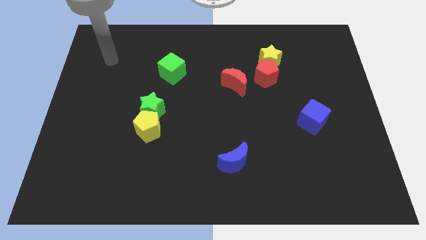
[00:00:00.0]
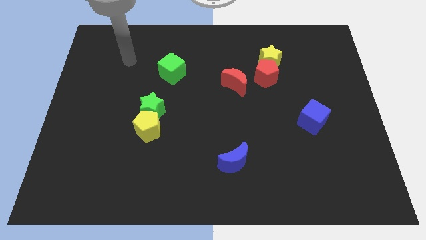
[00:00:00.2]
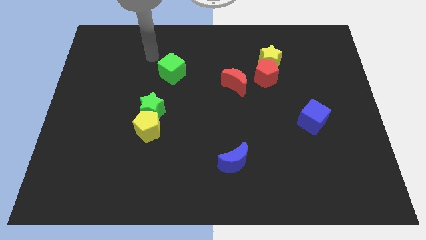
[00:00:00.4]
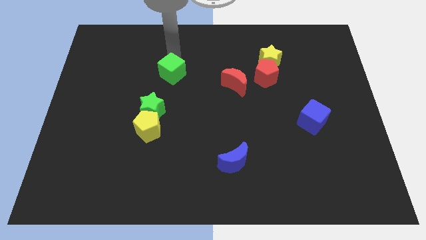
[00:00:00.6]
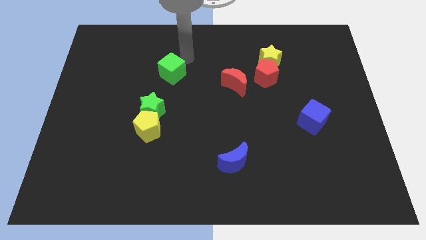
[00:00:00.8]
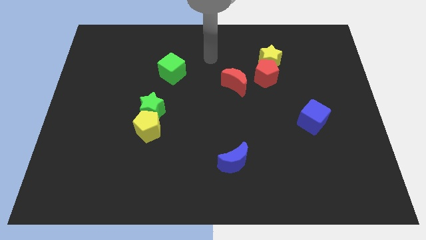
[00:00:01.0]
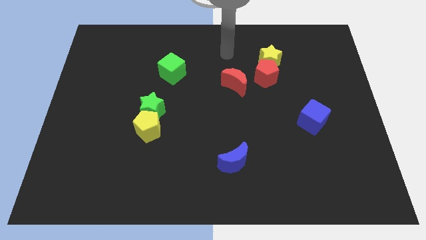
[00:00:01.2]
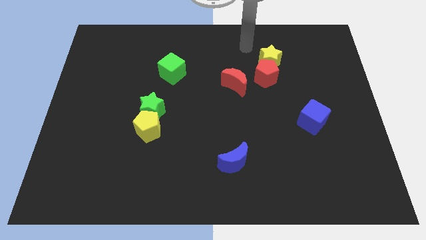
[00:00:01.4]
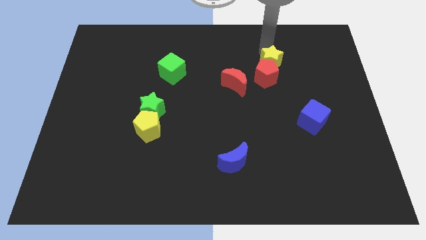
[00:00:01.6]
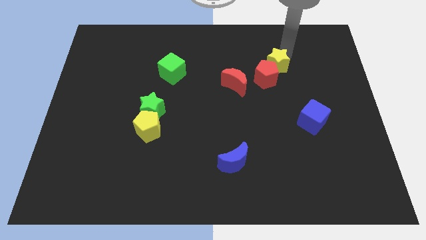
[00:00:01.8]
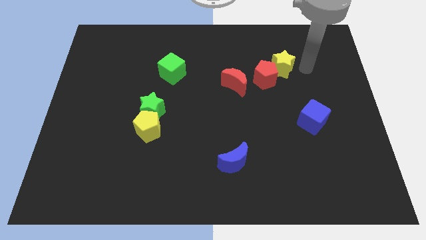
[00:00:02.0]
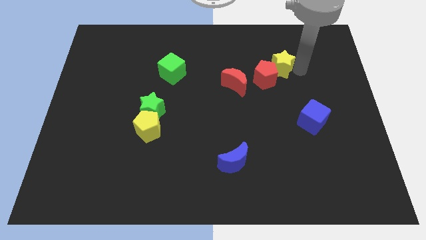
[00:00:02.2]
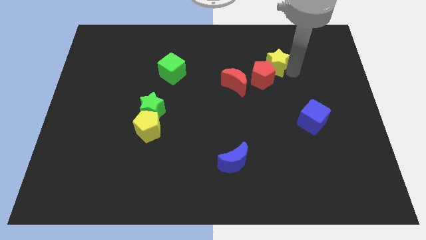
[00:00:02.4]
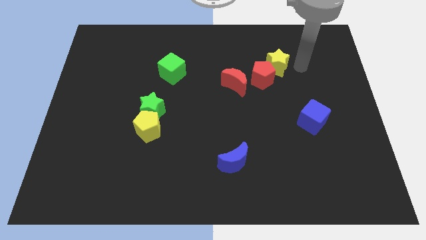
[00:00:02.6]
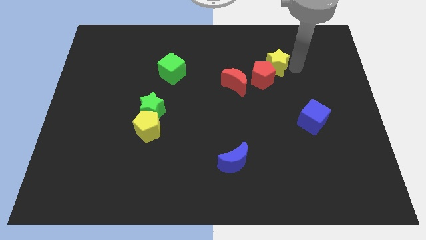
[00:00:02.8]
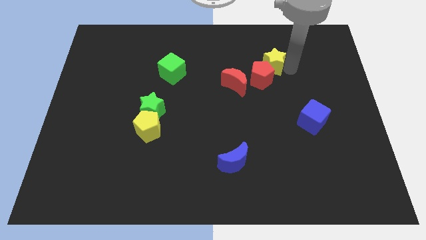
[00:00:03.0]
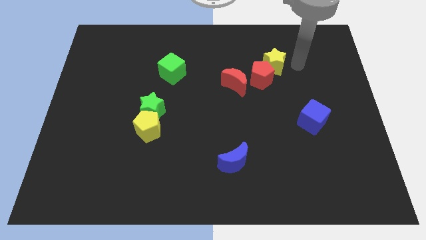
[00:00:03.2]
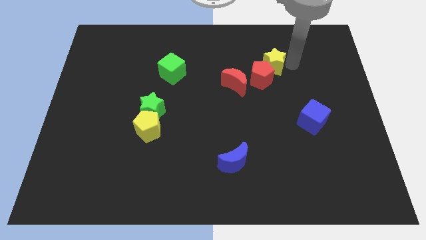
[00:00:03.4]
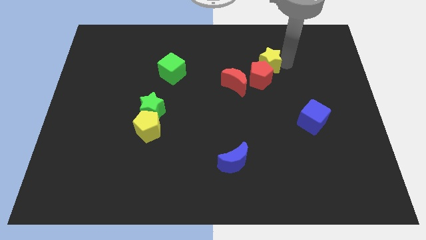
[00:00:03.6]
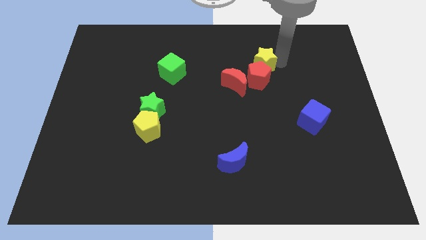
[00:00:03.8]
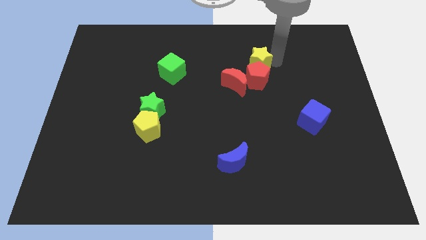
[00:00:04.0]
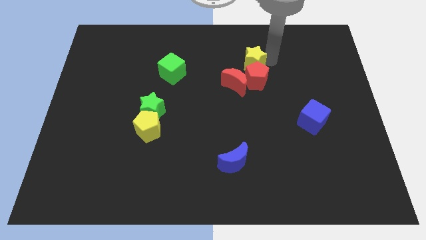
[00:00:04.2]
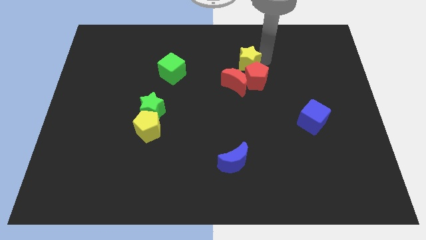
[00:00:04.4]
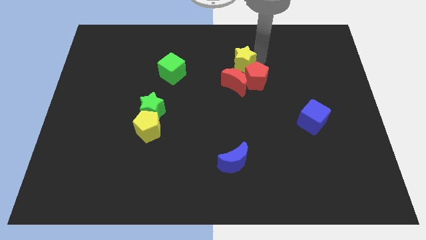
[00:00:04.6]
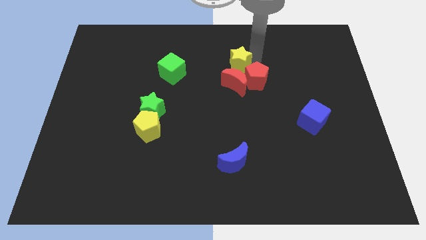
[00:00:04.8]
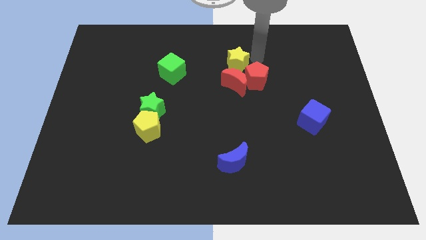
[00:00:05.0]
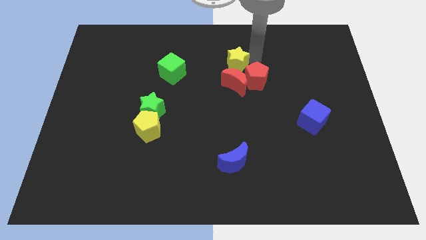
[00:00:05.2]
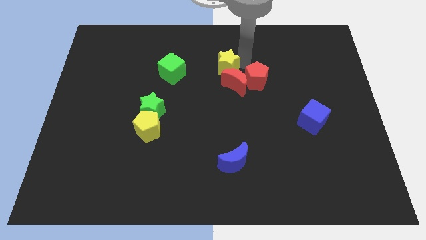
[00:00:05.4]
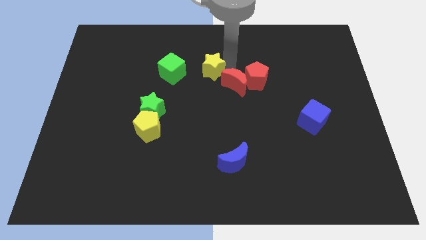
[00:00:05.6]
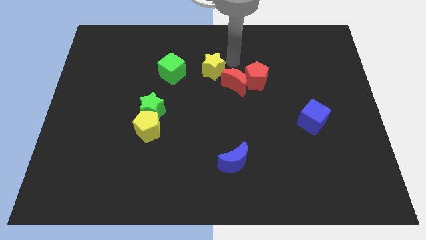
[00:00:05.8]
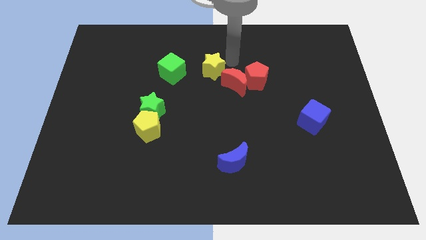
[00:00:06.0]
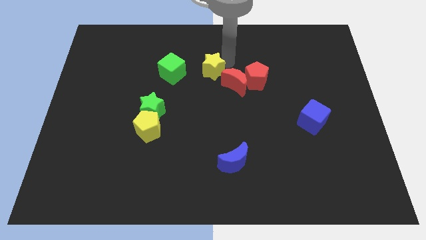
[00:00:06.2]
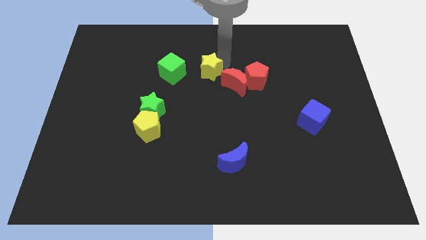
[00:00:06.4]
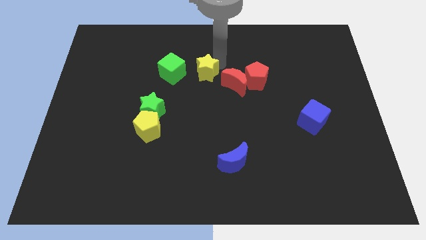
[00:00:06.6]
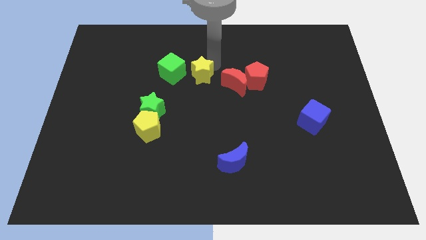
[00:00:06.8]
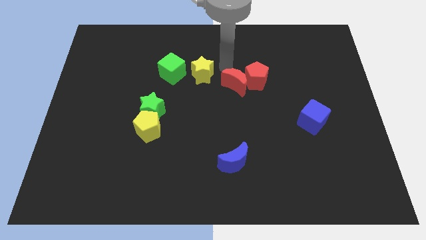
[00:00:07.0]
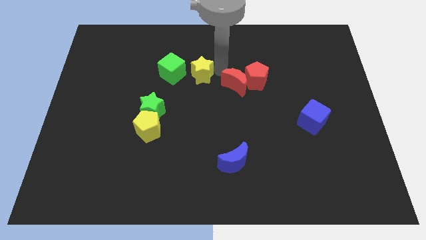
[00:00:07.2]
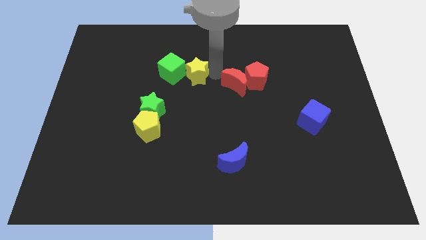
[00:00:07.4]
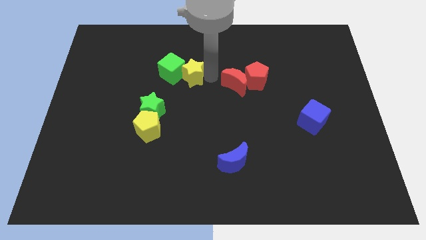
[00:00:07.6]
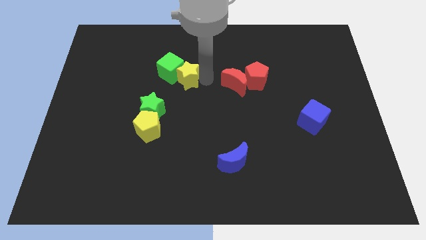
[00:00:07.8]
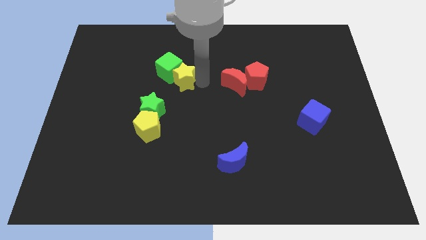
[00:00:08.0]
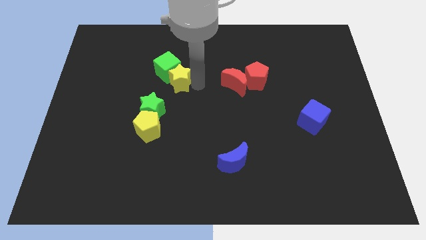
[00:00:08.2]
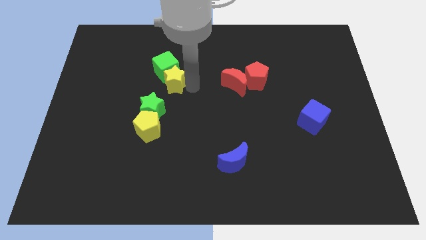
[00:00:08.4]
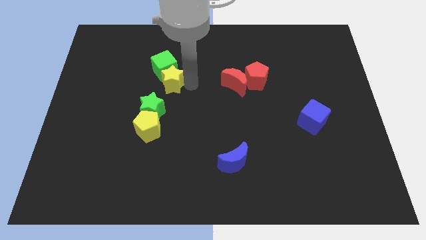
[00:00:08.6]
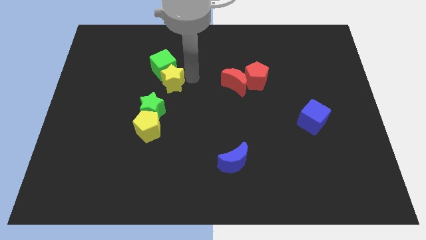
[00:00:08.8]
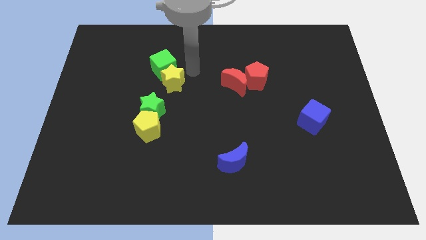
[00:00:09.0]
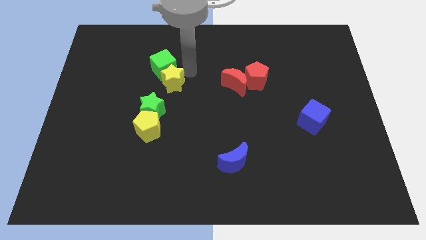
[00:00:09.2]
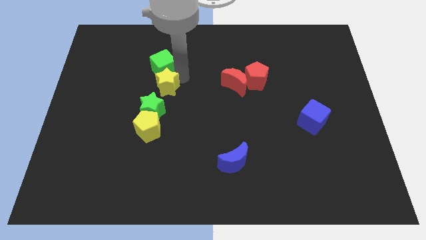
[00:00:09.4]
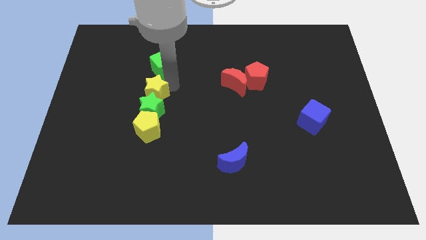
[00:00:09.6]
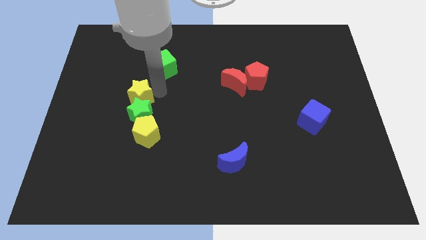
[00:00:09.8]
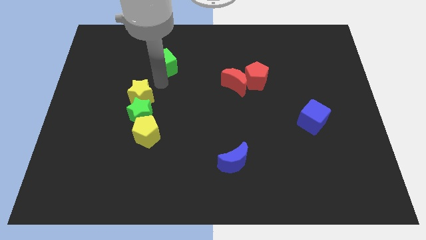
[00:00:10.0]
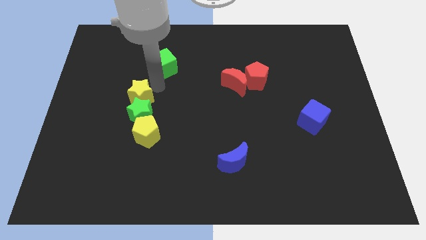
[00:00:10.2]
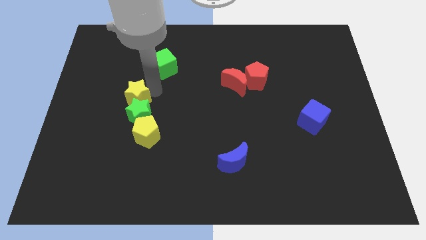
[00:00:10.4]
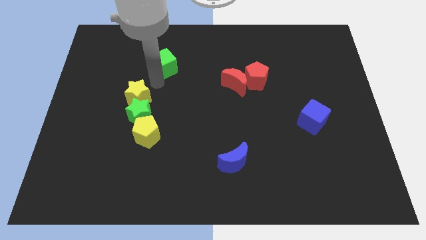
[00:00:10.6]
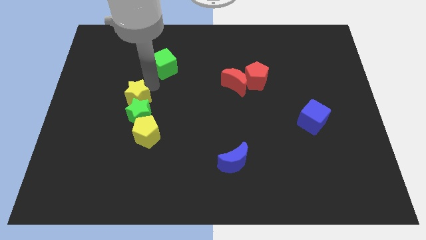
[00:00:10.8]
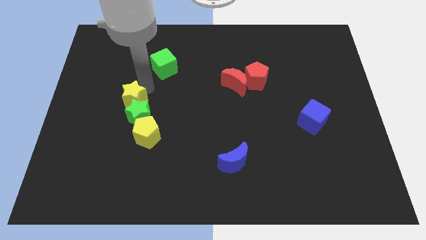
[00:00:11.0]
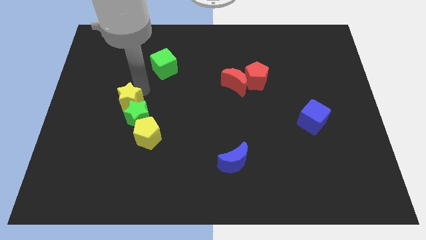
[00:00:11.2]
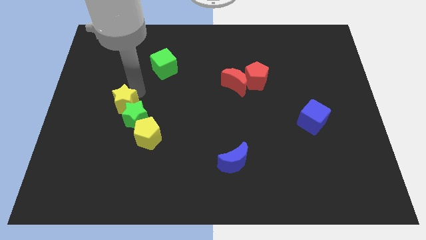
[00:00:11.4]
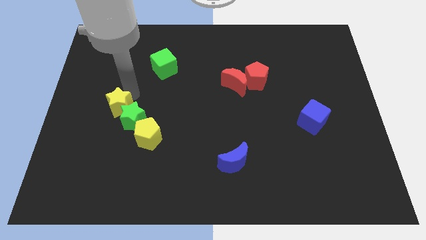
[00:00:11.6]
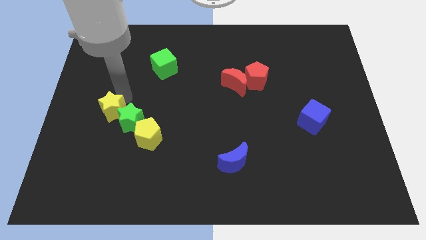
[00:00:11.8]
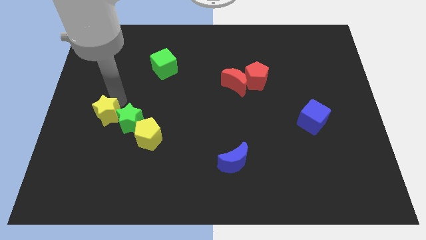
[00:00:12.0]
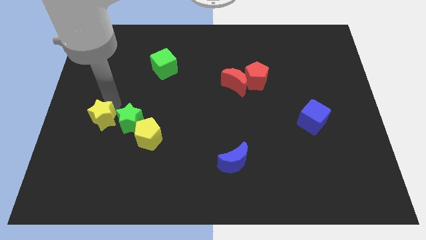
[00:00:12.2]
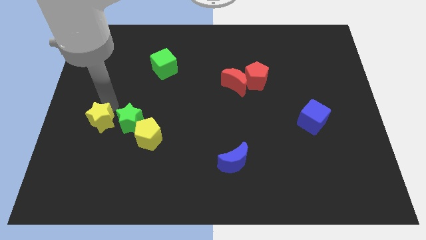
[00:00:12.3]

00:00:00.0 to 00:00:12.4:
push the yellow star to the left of the yellow pentagon

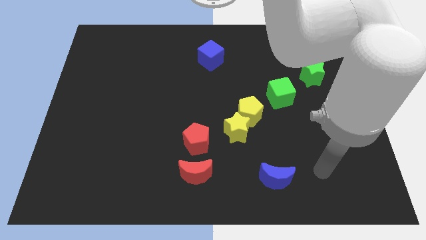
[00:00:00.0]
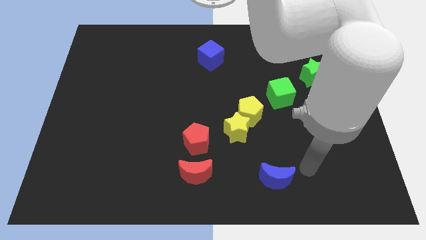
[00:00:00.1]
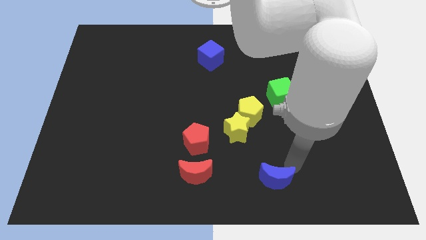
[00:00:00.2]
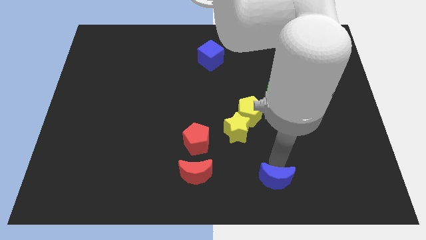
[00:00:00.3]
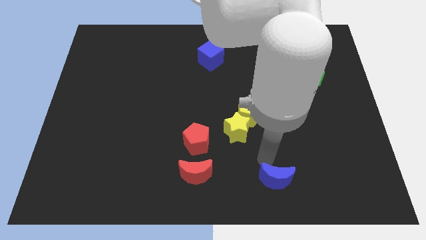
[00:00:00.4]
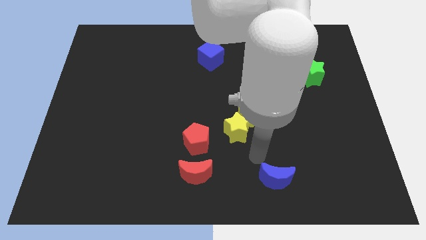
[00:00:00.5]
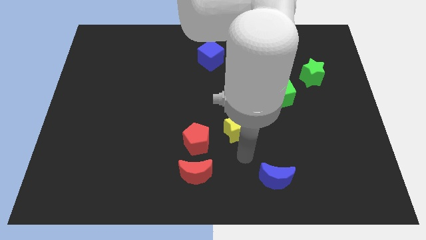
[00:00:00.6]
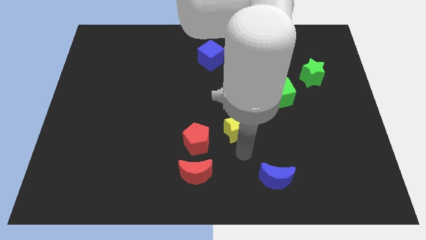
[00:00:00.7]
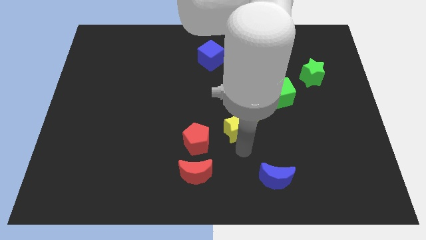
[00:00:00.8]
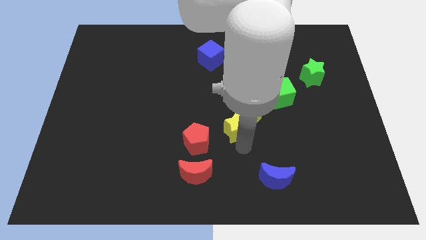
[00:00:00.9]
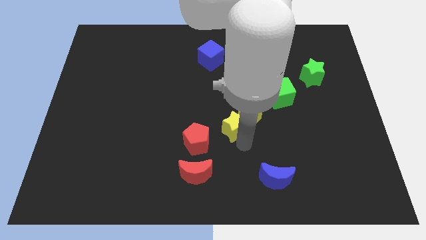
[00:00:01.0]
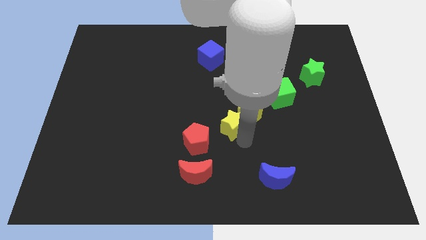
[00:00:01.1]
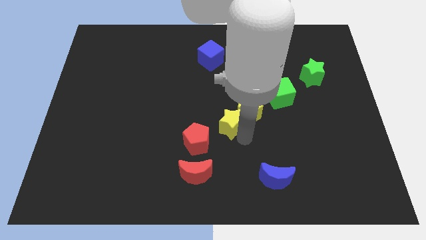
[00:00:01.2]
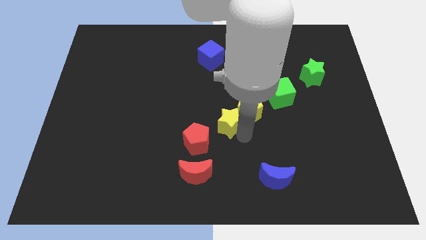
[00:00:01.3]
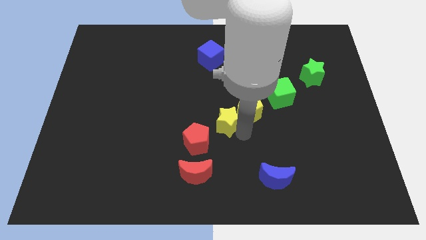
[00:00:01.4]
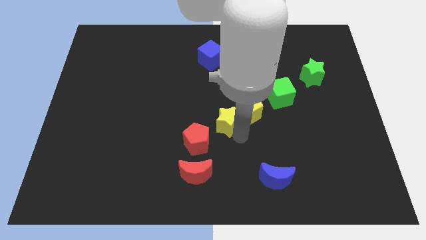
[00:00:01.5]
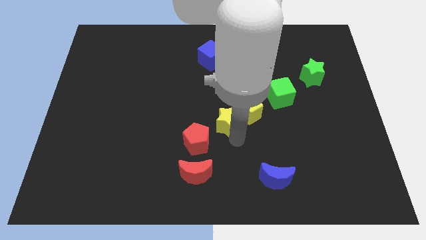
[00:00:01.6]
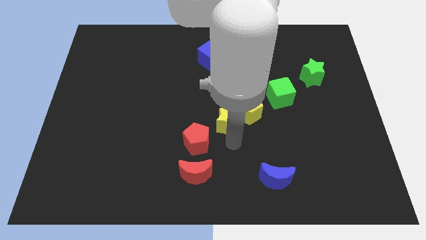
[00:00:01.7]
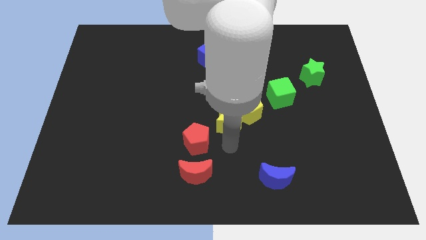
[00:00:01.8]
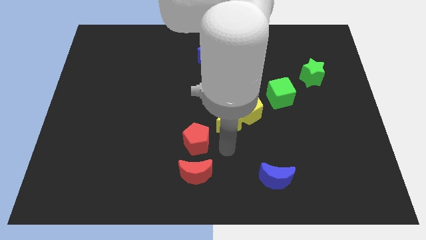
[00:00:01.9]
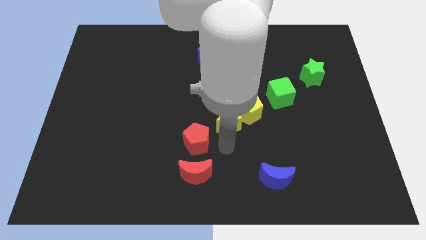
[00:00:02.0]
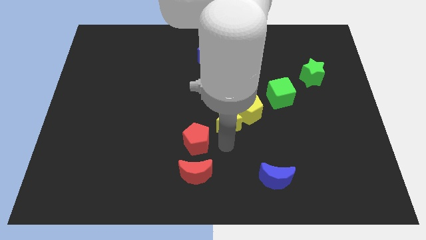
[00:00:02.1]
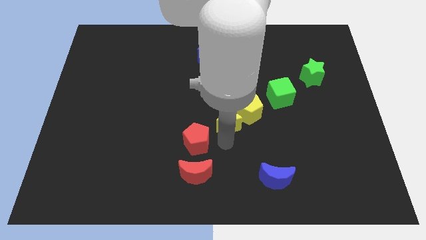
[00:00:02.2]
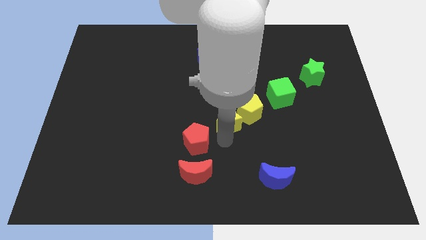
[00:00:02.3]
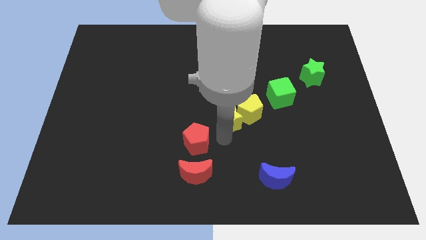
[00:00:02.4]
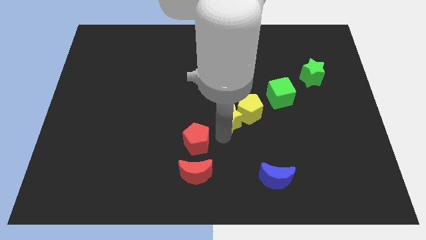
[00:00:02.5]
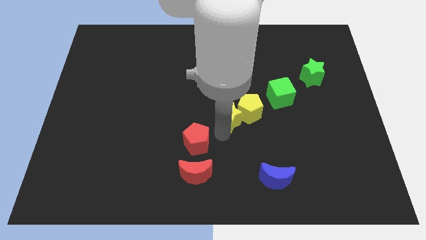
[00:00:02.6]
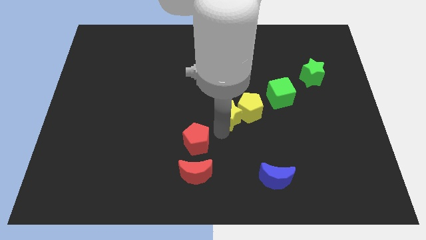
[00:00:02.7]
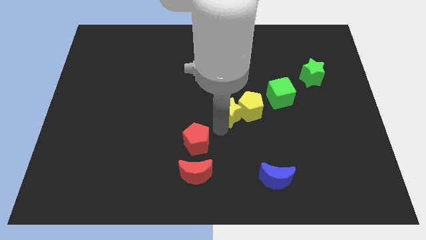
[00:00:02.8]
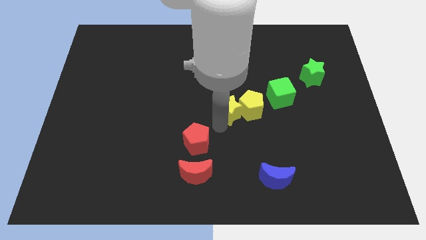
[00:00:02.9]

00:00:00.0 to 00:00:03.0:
move the yellow star diagonally up and to the left of the yellow pentagon
